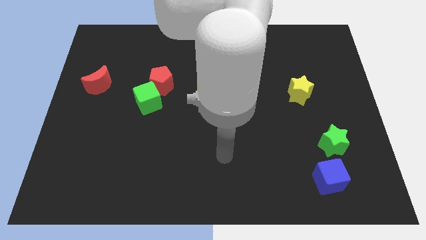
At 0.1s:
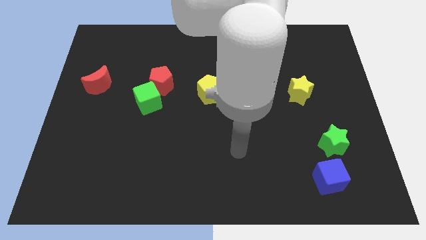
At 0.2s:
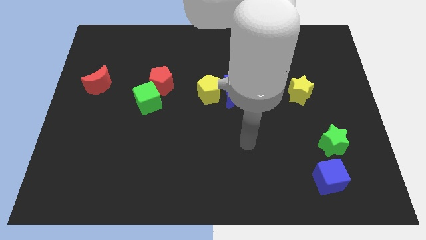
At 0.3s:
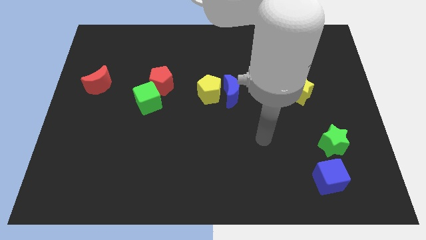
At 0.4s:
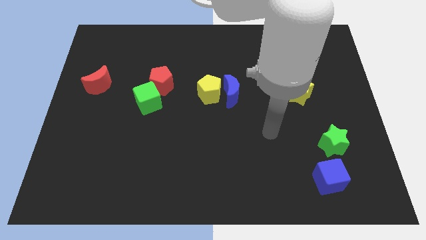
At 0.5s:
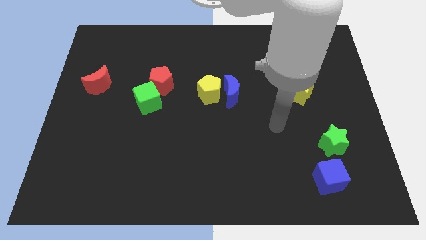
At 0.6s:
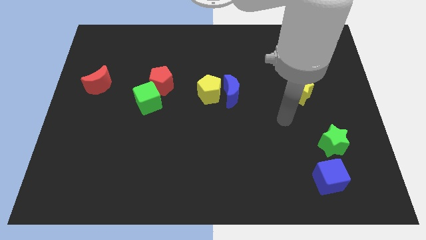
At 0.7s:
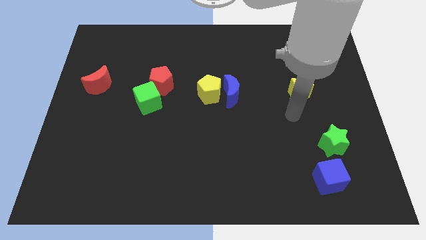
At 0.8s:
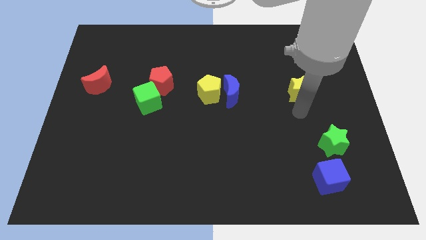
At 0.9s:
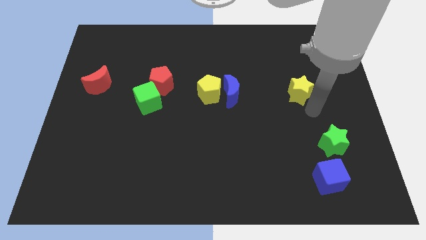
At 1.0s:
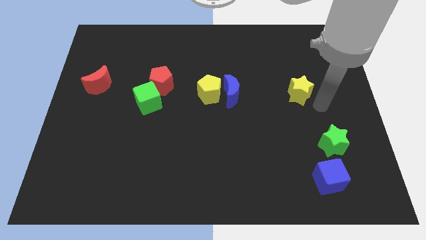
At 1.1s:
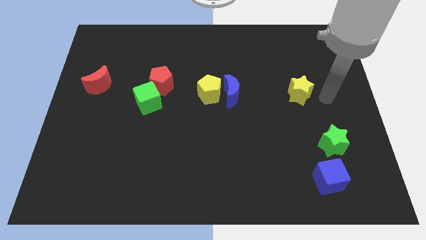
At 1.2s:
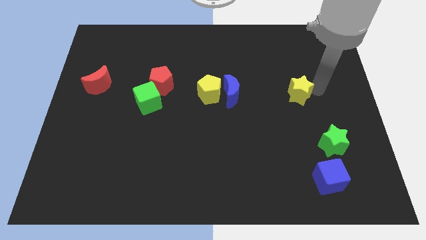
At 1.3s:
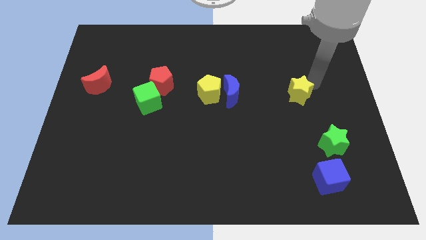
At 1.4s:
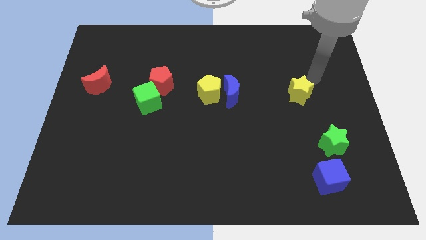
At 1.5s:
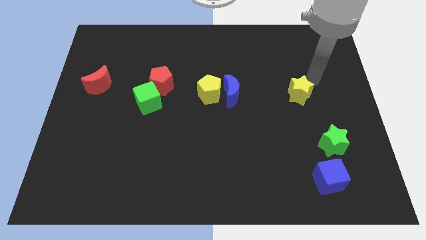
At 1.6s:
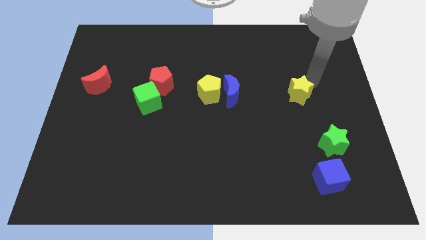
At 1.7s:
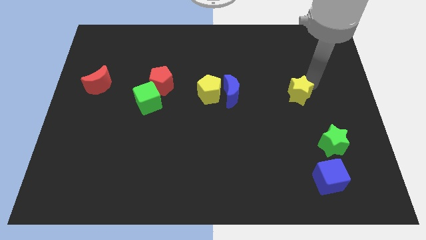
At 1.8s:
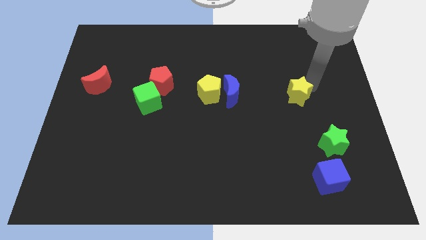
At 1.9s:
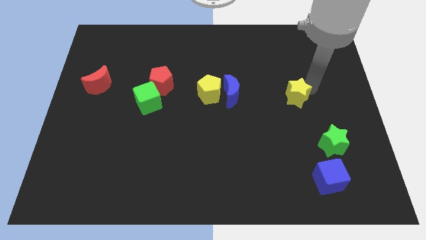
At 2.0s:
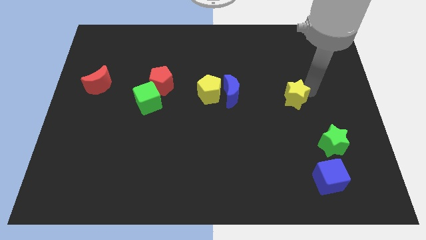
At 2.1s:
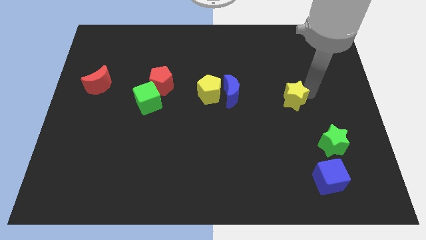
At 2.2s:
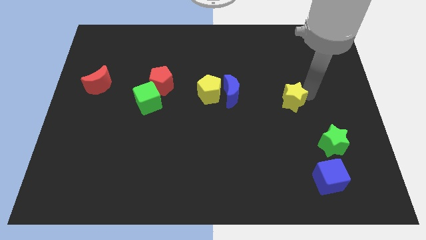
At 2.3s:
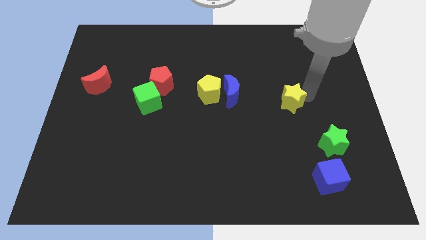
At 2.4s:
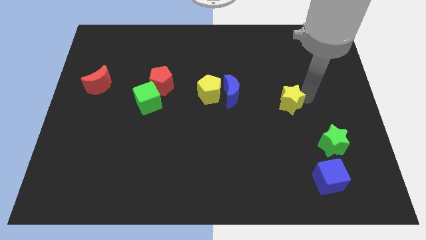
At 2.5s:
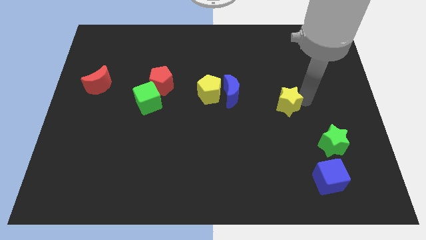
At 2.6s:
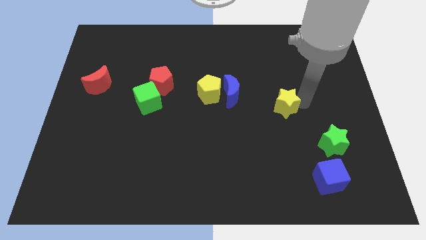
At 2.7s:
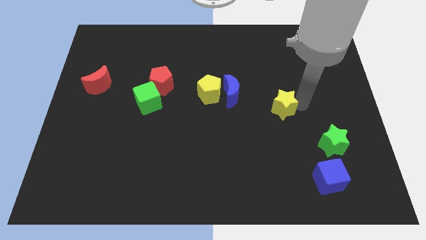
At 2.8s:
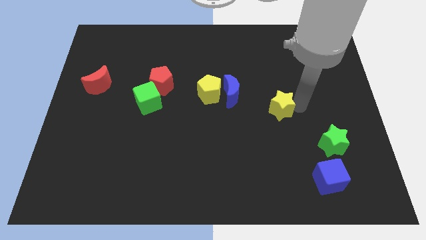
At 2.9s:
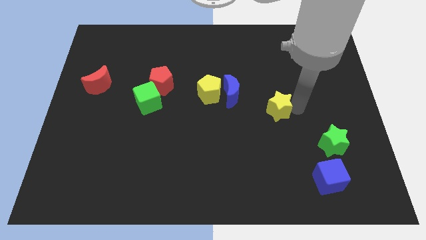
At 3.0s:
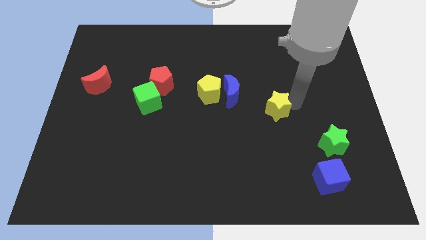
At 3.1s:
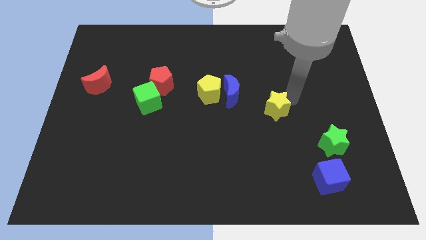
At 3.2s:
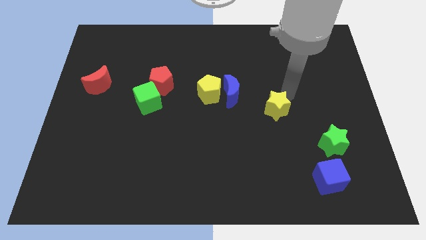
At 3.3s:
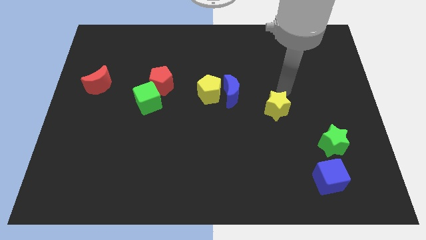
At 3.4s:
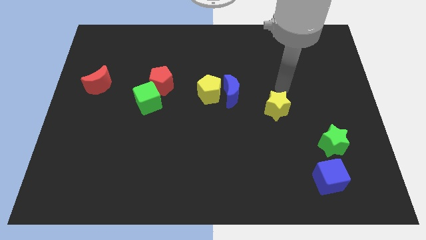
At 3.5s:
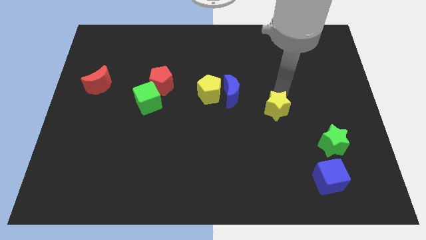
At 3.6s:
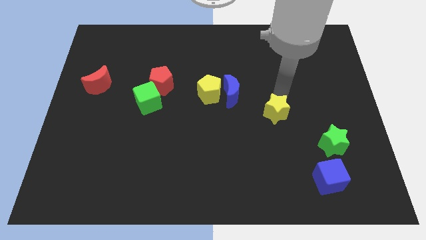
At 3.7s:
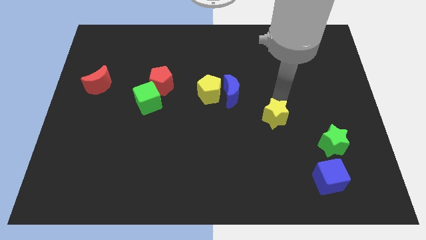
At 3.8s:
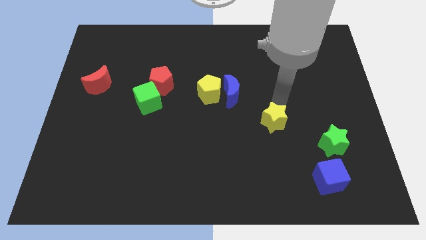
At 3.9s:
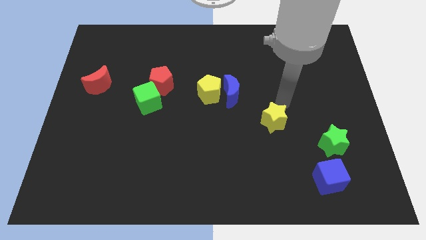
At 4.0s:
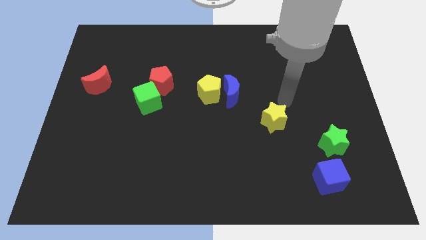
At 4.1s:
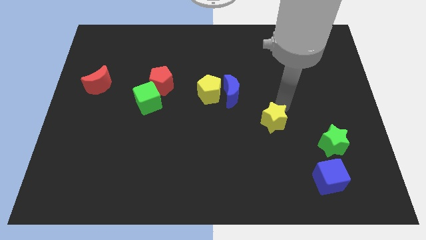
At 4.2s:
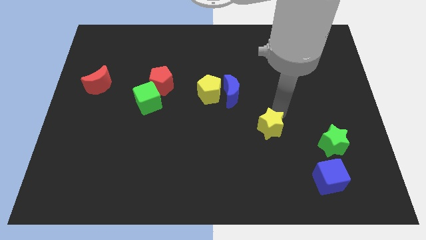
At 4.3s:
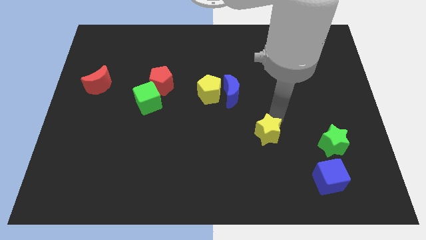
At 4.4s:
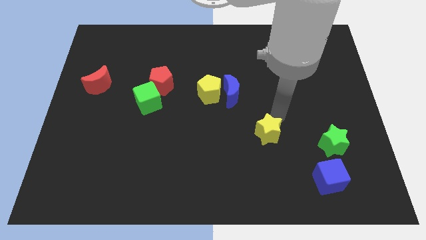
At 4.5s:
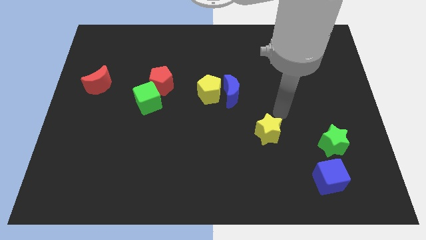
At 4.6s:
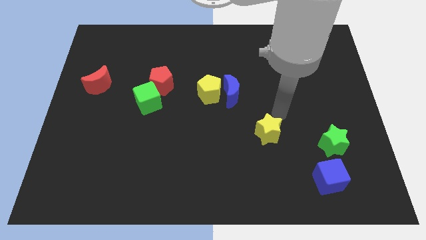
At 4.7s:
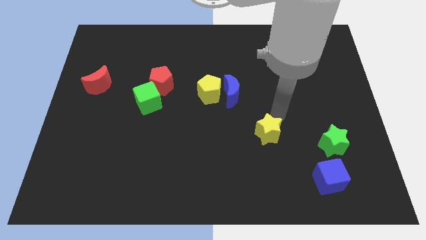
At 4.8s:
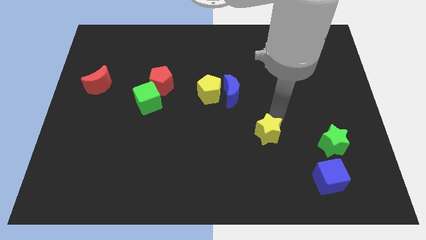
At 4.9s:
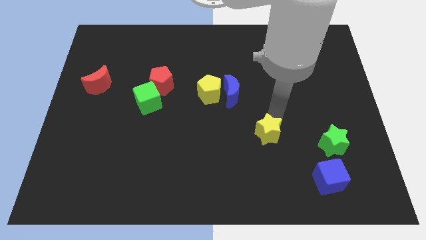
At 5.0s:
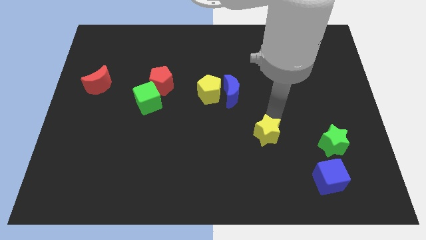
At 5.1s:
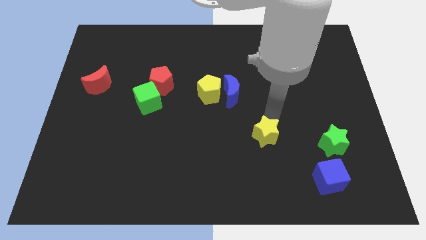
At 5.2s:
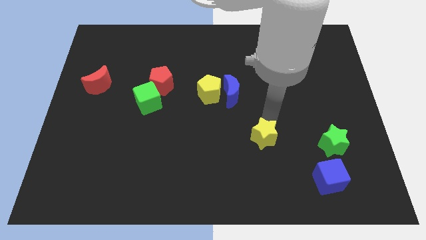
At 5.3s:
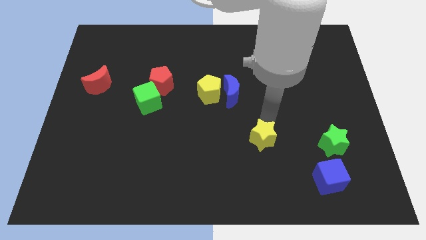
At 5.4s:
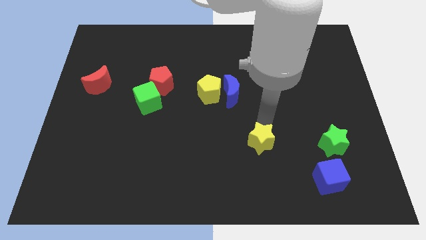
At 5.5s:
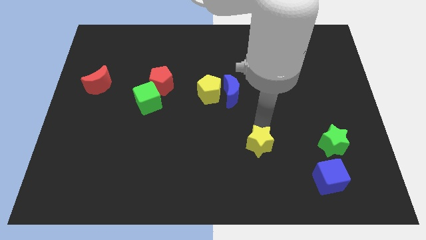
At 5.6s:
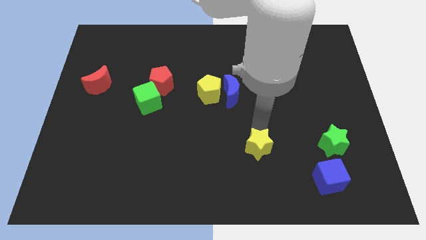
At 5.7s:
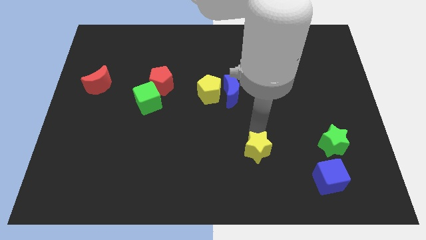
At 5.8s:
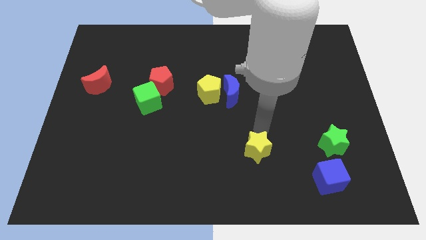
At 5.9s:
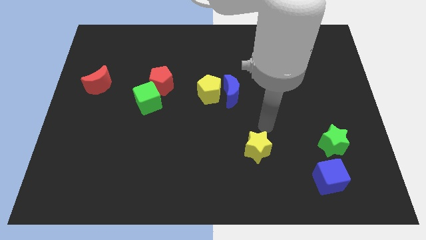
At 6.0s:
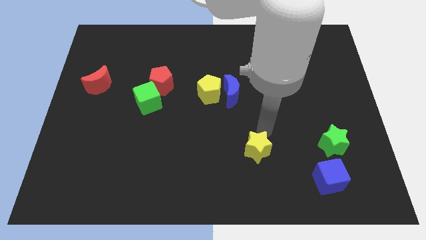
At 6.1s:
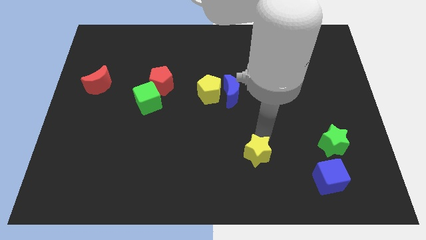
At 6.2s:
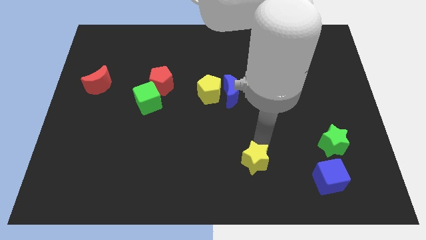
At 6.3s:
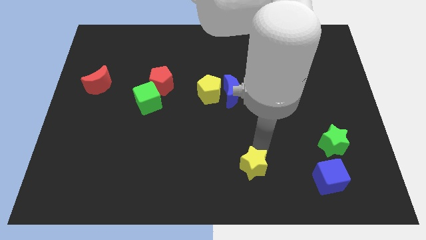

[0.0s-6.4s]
slide the yellow star to the bottom side
